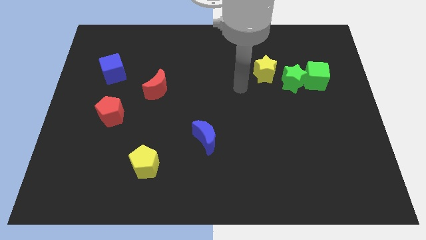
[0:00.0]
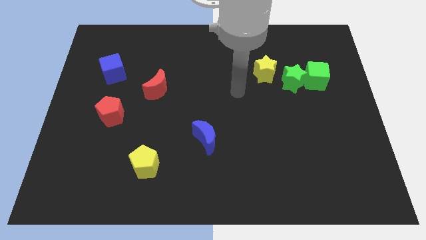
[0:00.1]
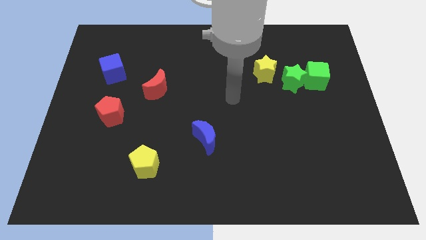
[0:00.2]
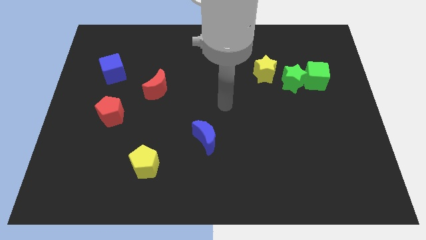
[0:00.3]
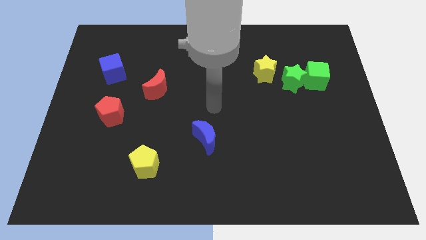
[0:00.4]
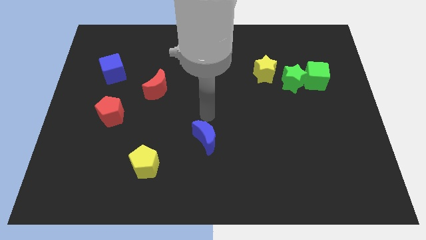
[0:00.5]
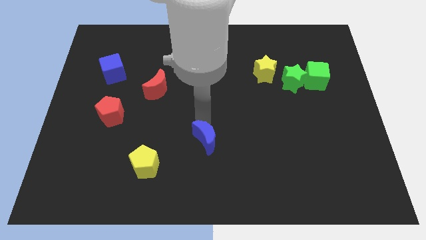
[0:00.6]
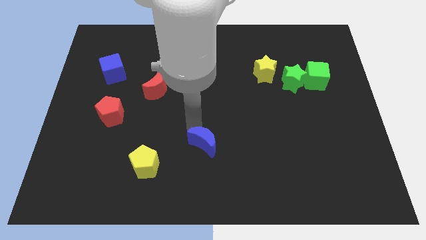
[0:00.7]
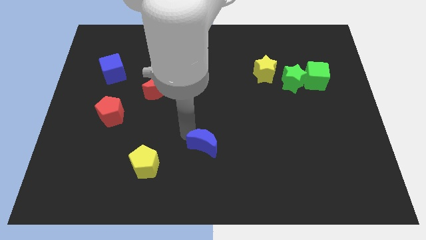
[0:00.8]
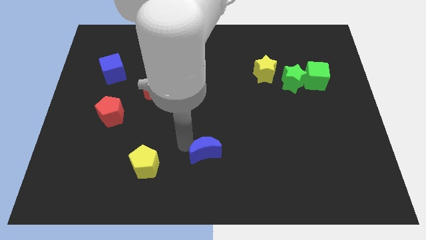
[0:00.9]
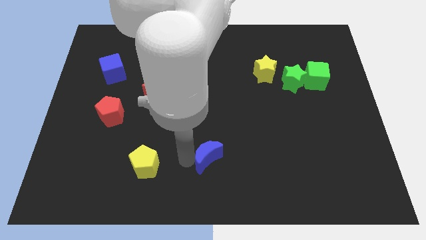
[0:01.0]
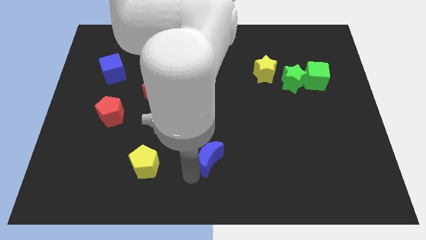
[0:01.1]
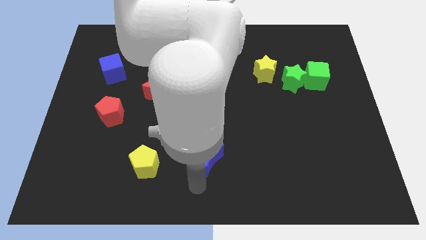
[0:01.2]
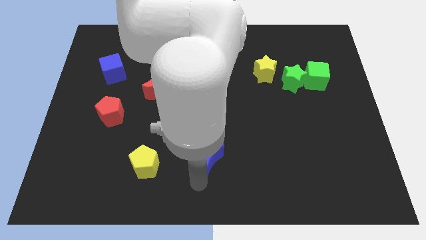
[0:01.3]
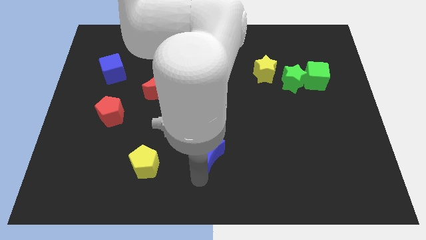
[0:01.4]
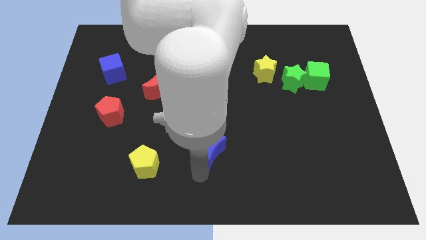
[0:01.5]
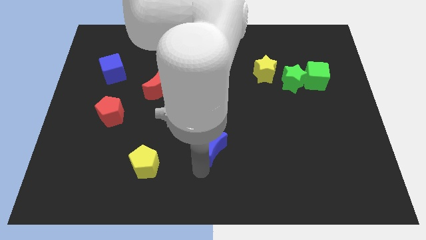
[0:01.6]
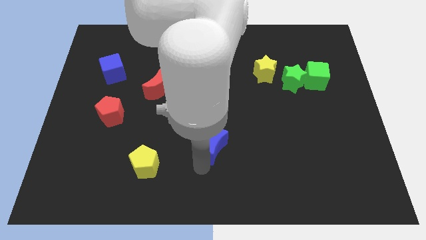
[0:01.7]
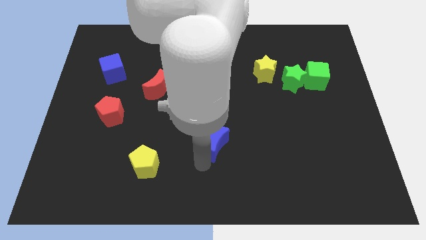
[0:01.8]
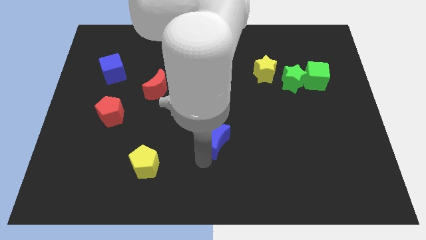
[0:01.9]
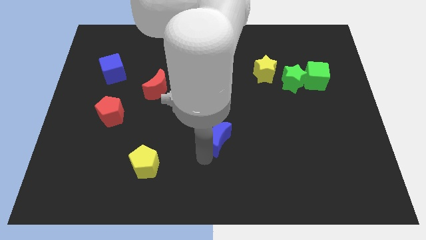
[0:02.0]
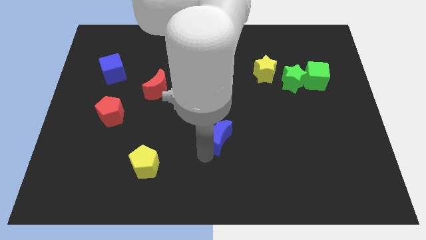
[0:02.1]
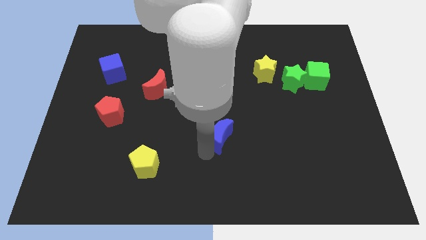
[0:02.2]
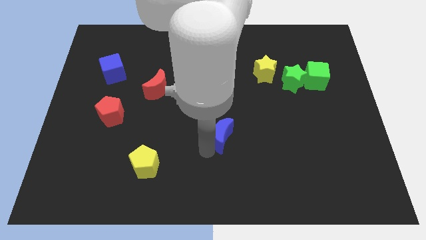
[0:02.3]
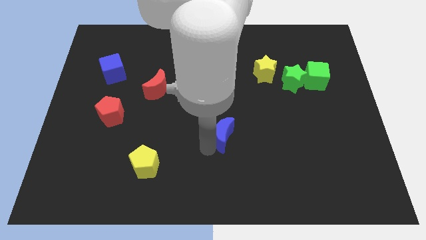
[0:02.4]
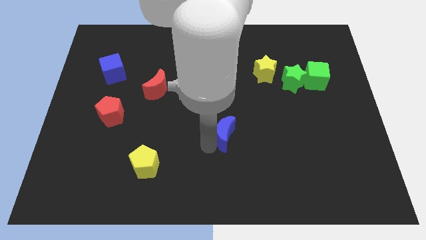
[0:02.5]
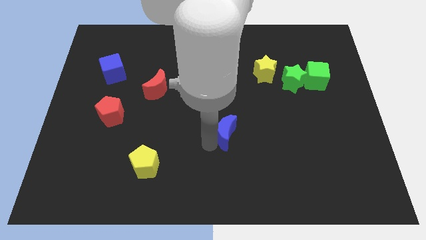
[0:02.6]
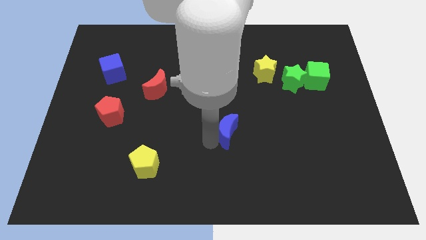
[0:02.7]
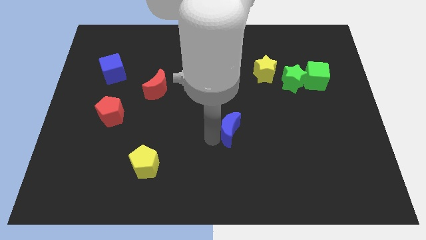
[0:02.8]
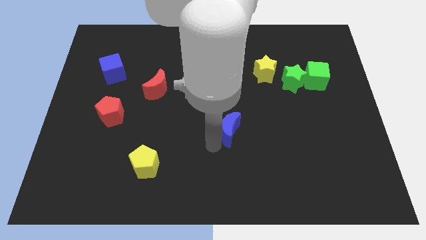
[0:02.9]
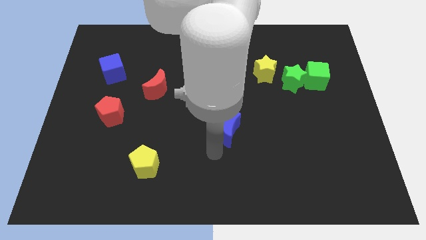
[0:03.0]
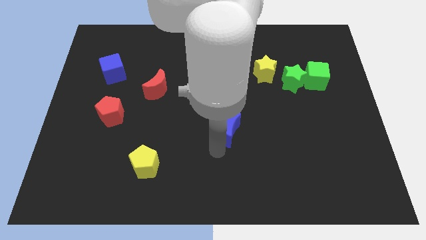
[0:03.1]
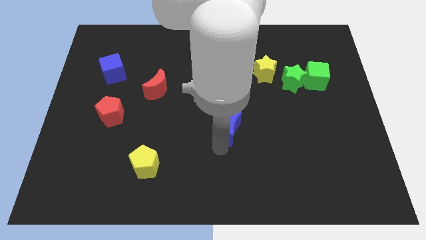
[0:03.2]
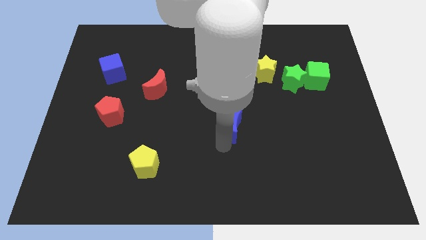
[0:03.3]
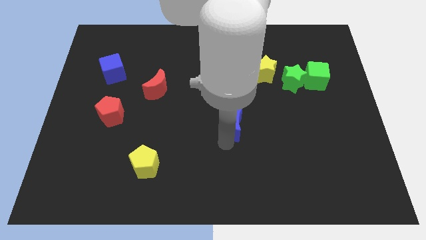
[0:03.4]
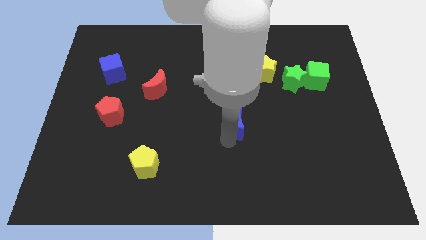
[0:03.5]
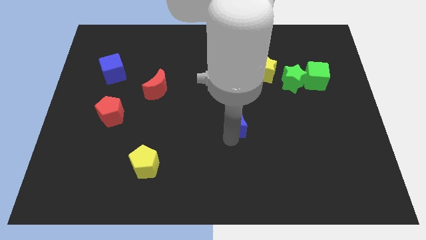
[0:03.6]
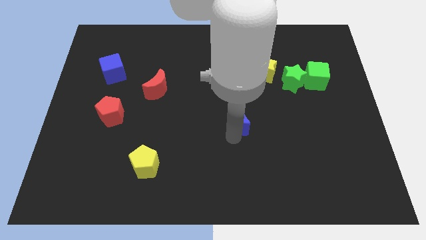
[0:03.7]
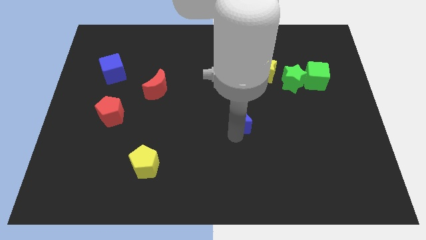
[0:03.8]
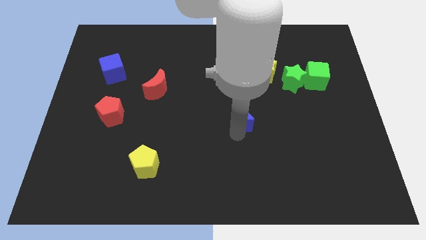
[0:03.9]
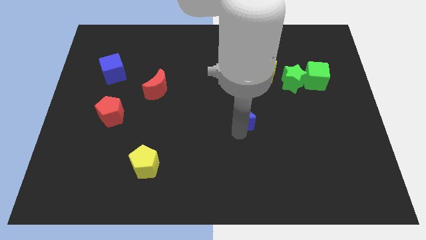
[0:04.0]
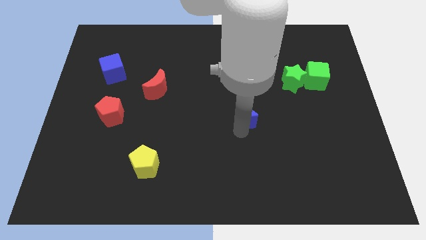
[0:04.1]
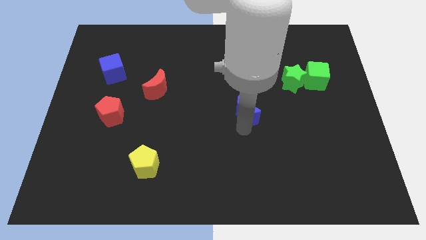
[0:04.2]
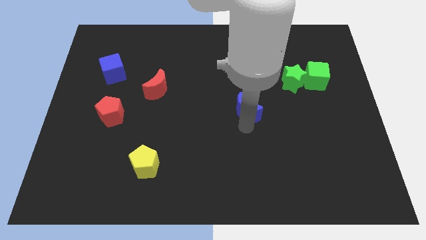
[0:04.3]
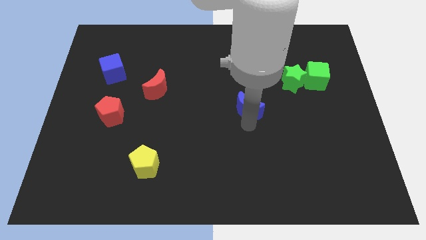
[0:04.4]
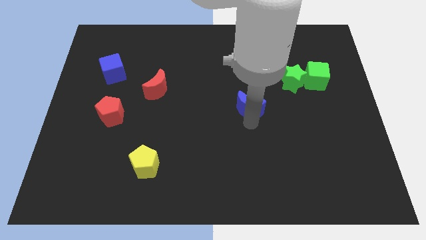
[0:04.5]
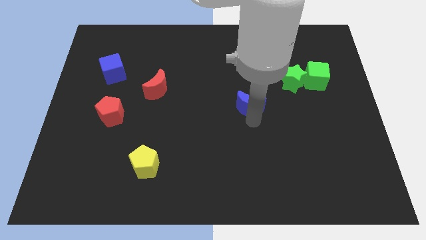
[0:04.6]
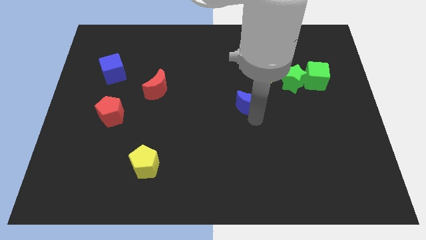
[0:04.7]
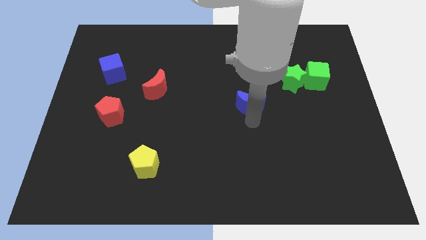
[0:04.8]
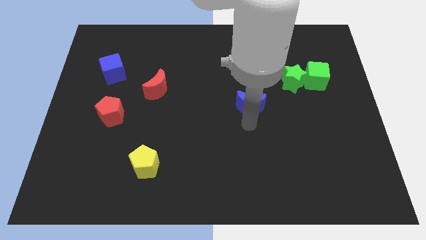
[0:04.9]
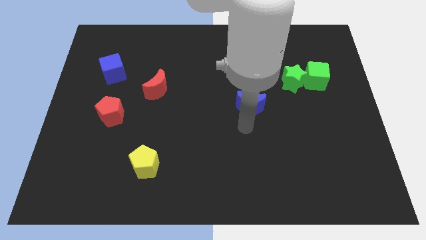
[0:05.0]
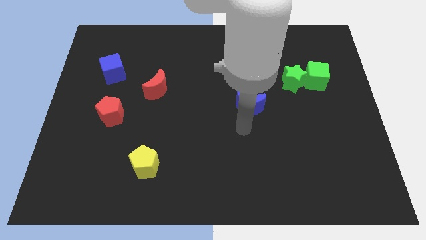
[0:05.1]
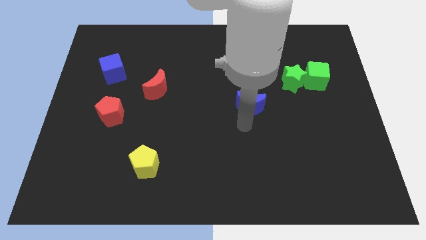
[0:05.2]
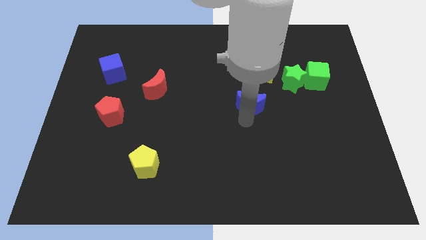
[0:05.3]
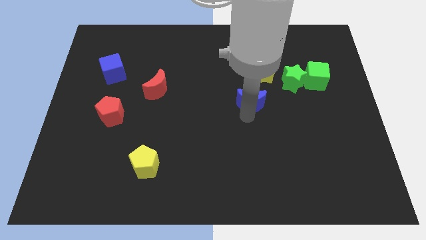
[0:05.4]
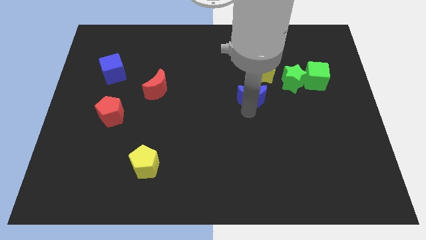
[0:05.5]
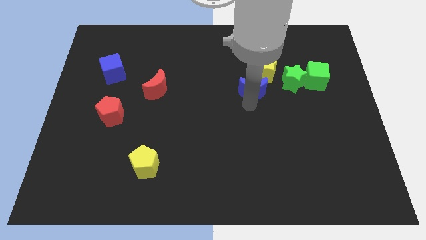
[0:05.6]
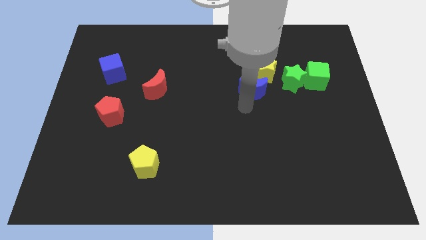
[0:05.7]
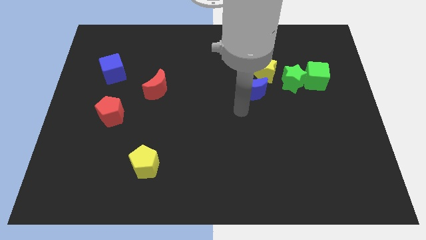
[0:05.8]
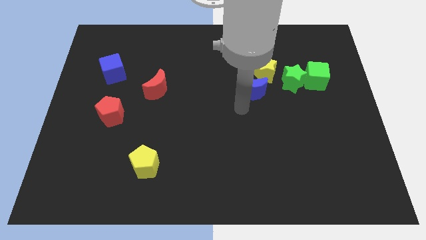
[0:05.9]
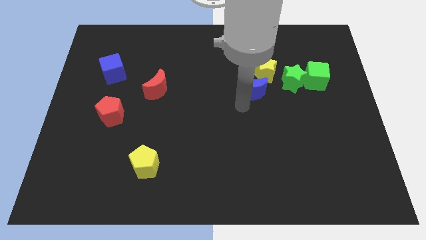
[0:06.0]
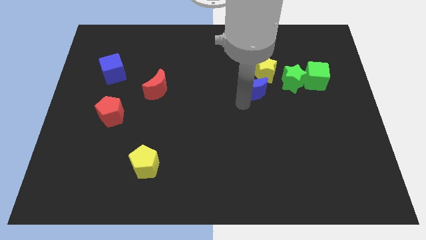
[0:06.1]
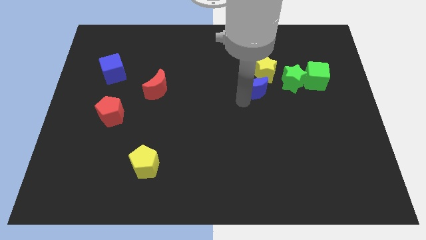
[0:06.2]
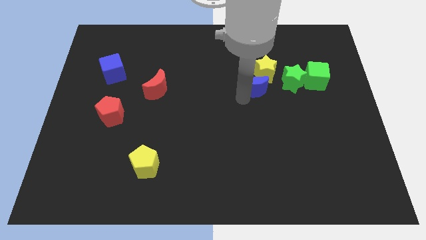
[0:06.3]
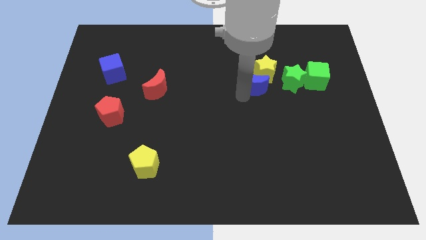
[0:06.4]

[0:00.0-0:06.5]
slide the blue moon to the yellow star

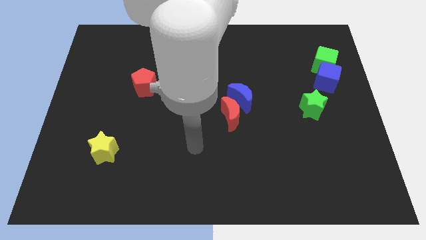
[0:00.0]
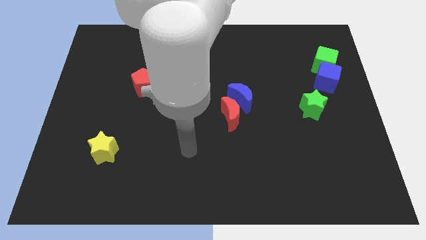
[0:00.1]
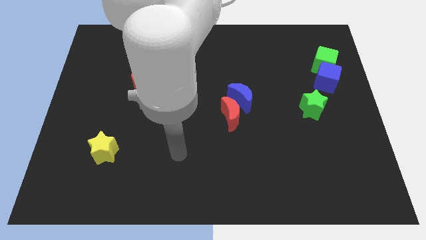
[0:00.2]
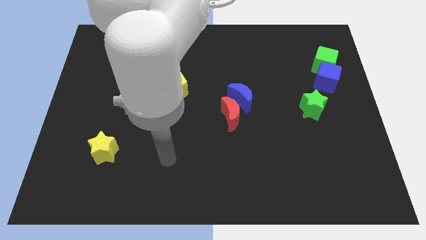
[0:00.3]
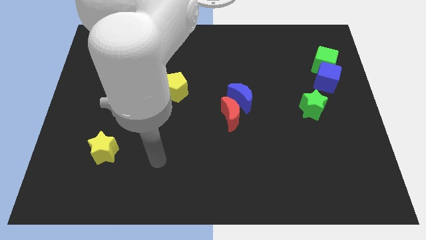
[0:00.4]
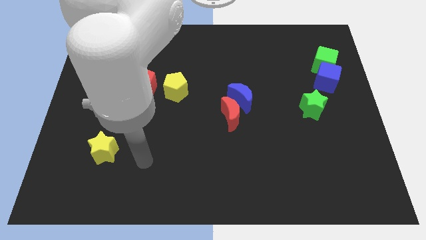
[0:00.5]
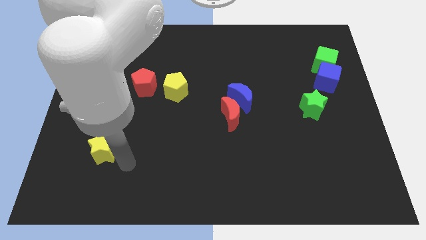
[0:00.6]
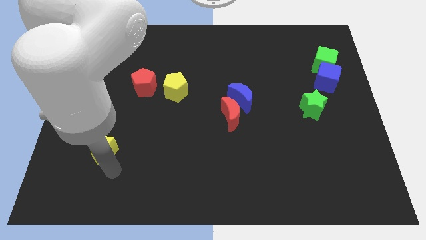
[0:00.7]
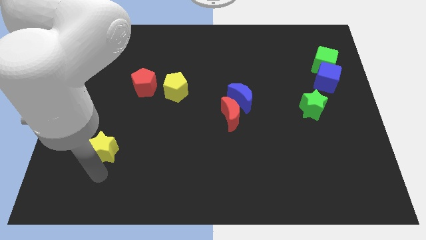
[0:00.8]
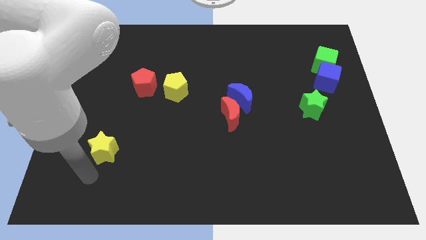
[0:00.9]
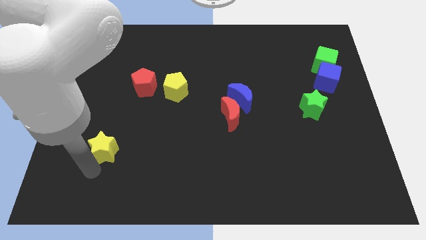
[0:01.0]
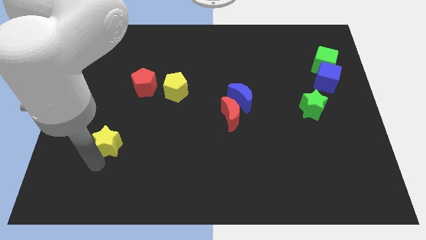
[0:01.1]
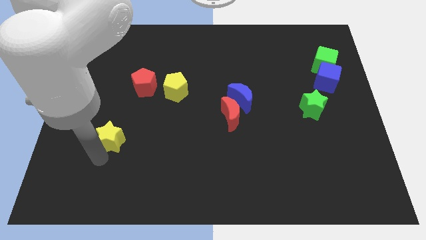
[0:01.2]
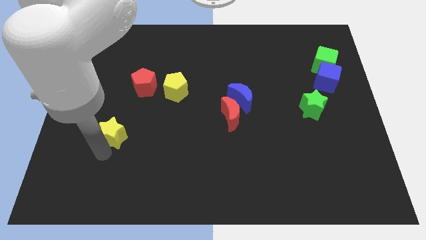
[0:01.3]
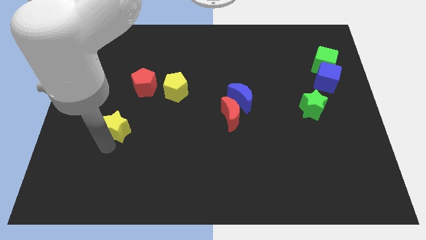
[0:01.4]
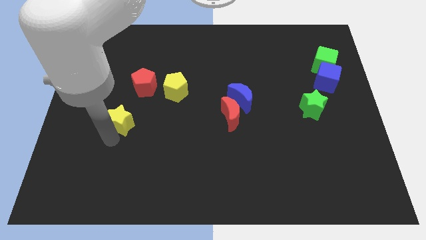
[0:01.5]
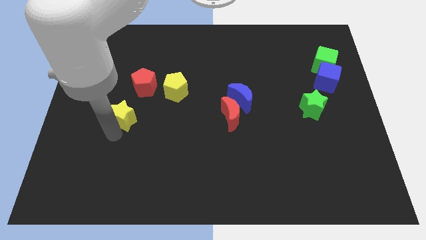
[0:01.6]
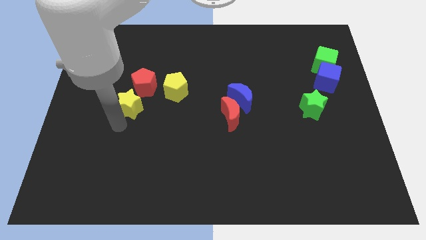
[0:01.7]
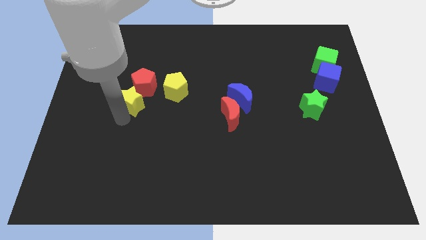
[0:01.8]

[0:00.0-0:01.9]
push the yellow star towards the red pentagon
